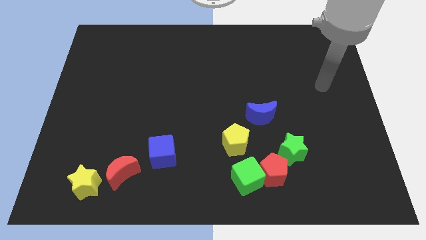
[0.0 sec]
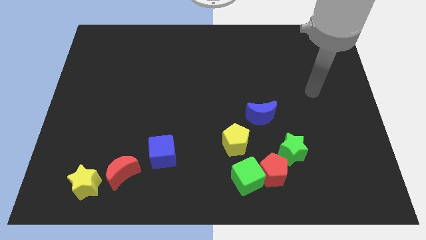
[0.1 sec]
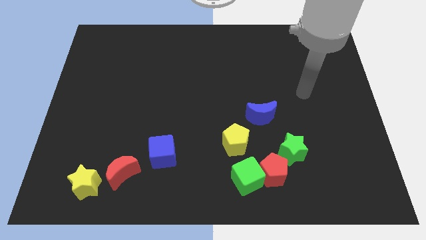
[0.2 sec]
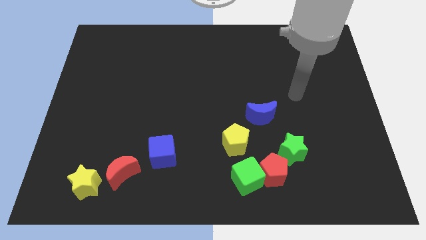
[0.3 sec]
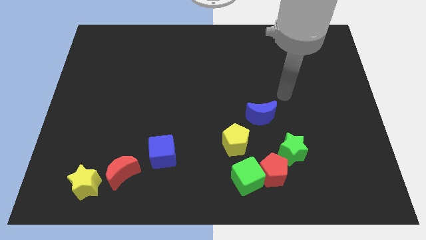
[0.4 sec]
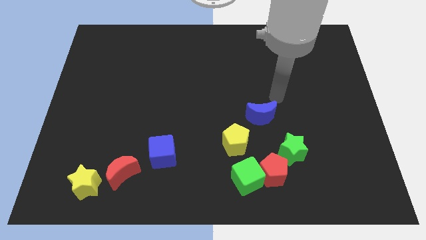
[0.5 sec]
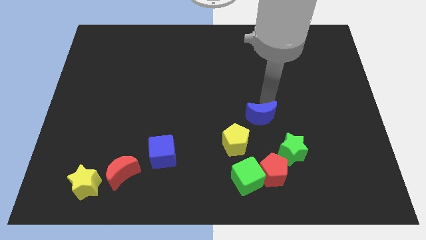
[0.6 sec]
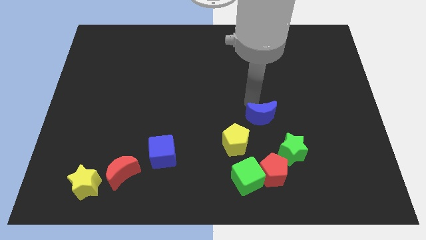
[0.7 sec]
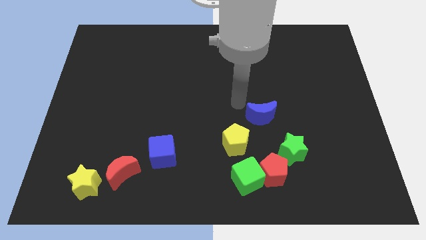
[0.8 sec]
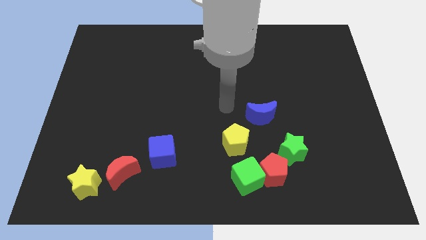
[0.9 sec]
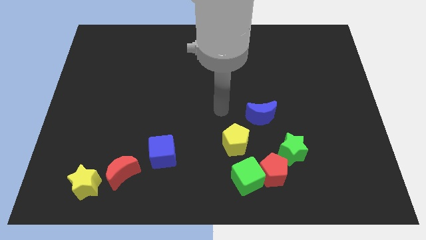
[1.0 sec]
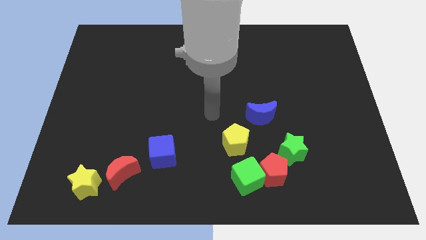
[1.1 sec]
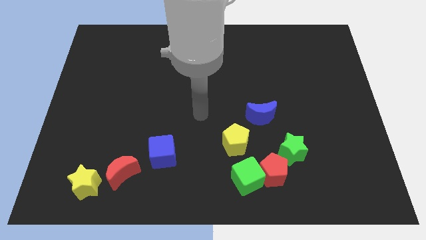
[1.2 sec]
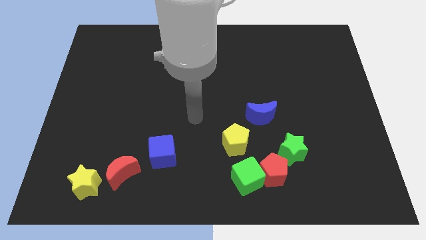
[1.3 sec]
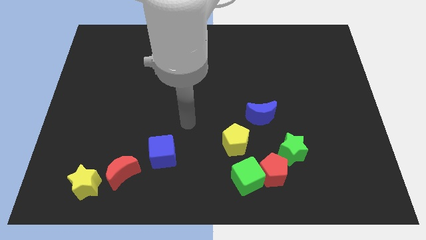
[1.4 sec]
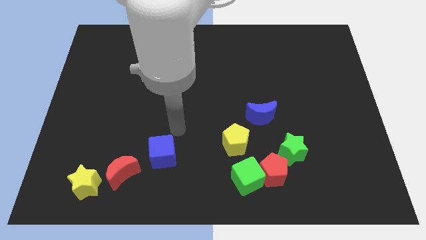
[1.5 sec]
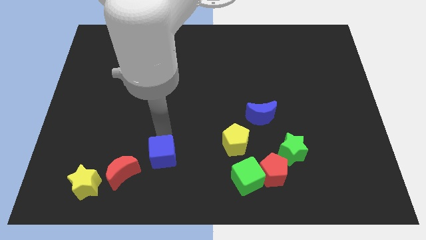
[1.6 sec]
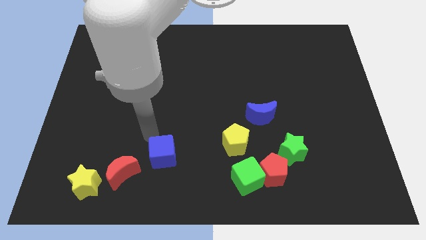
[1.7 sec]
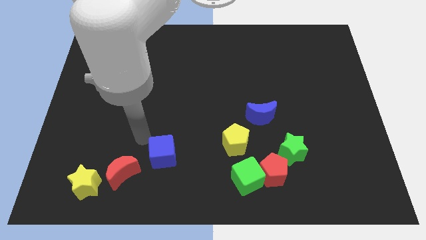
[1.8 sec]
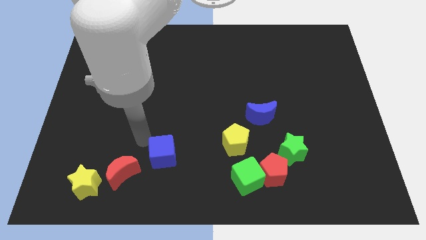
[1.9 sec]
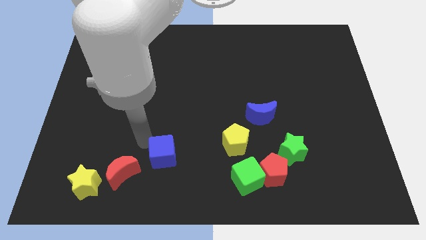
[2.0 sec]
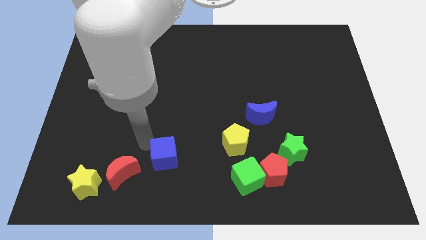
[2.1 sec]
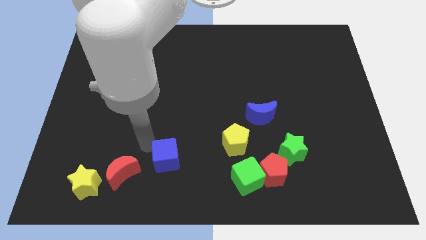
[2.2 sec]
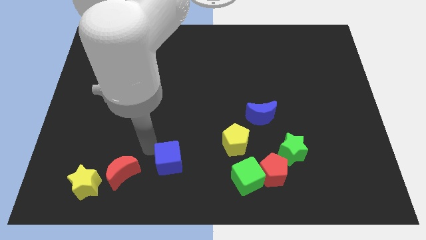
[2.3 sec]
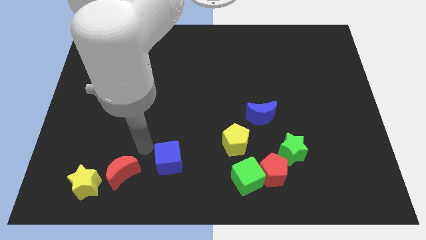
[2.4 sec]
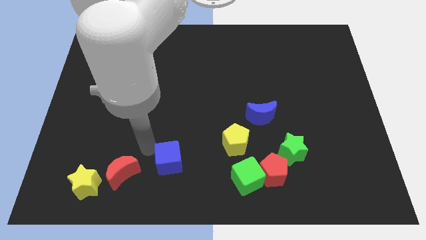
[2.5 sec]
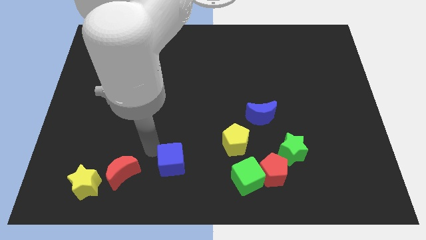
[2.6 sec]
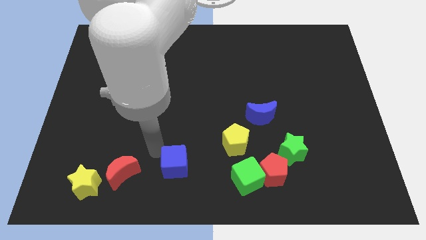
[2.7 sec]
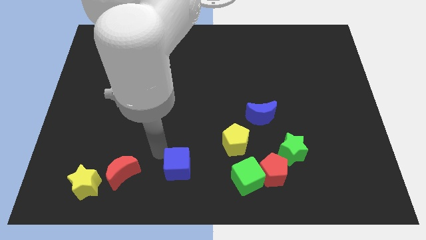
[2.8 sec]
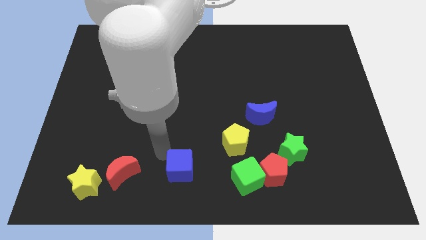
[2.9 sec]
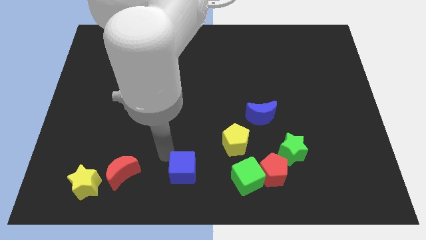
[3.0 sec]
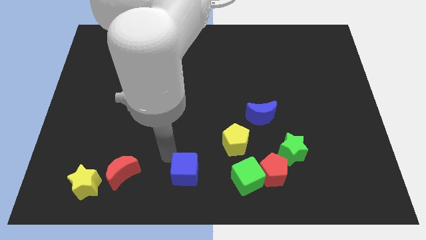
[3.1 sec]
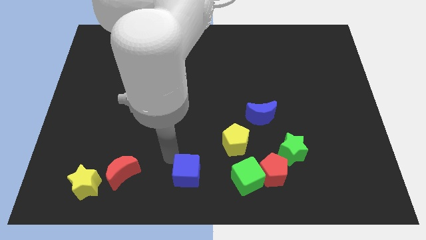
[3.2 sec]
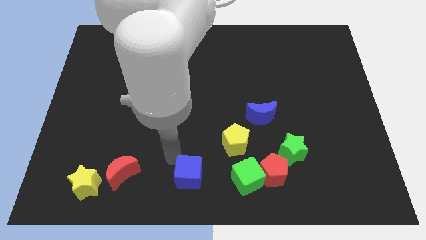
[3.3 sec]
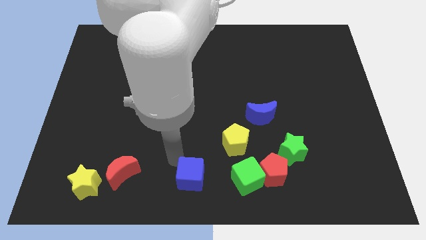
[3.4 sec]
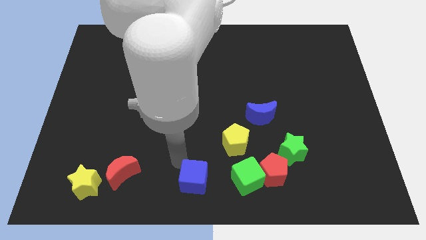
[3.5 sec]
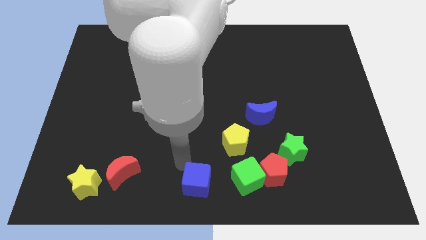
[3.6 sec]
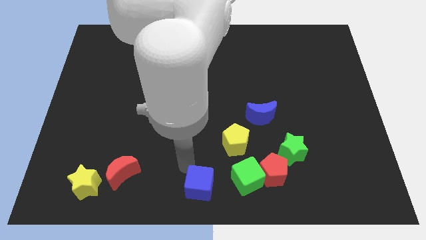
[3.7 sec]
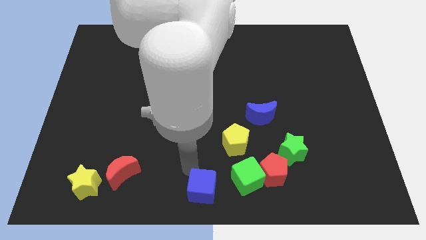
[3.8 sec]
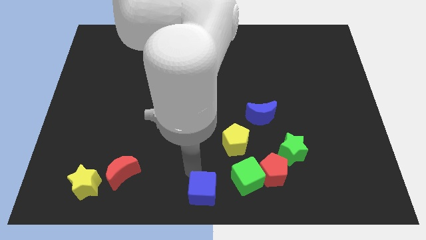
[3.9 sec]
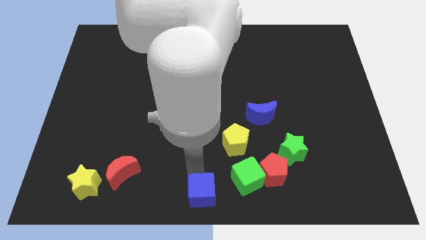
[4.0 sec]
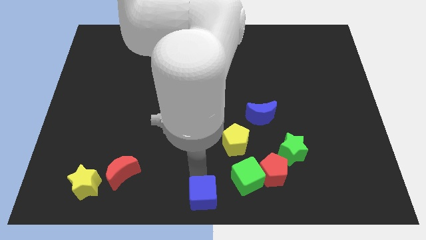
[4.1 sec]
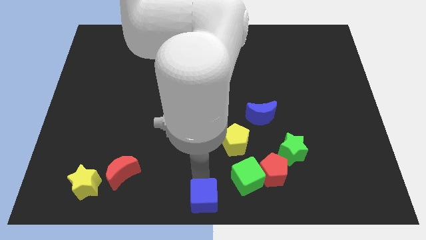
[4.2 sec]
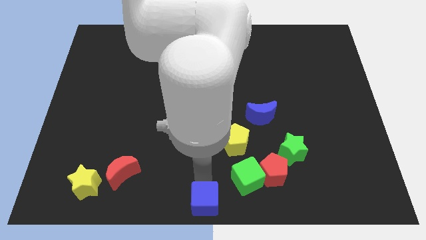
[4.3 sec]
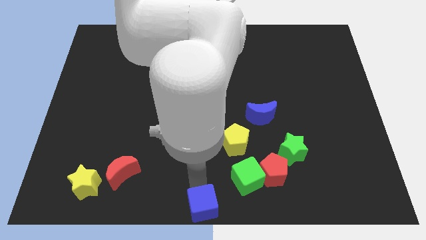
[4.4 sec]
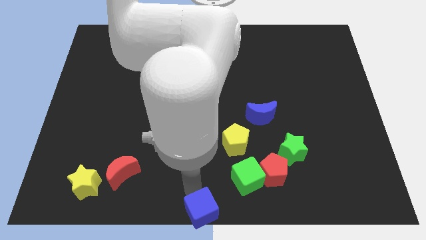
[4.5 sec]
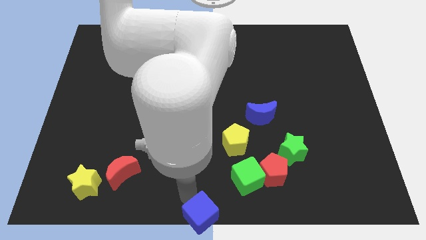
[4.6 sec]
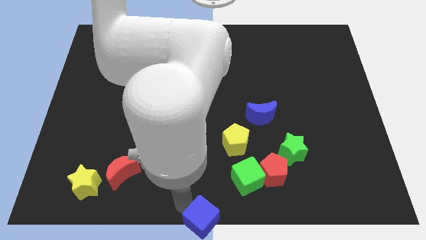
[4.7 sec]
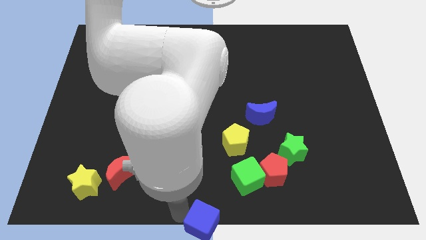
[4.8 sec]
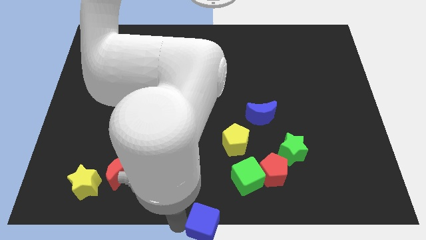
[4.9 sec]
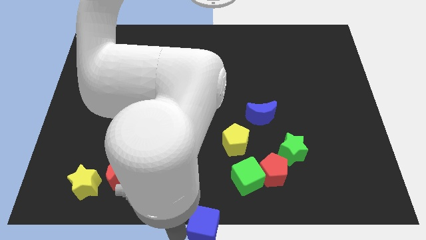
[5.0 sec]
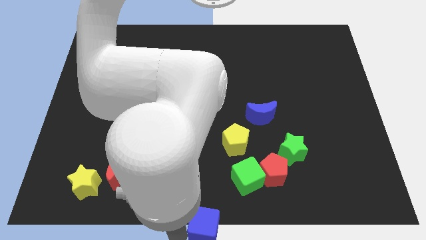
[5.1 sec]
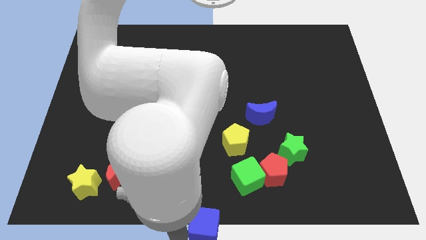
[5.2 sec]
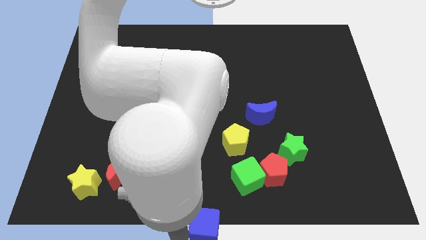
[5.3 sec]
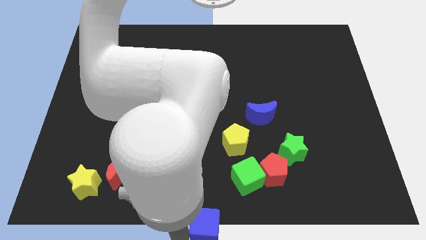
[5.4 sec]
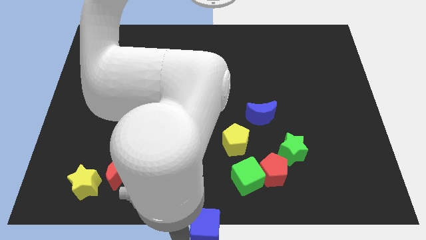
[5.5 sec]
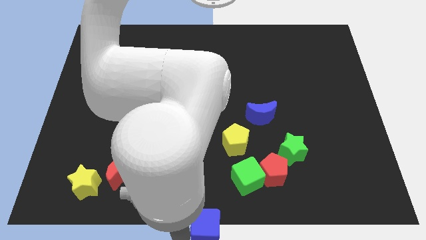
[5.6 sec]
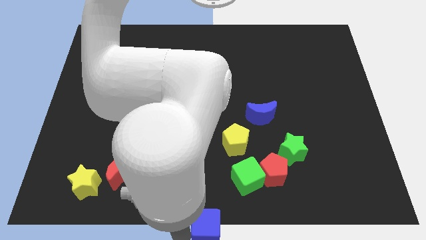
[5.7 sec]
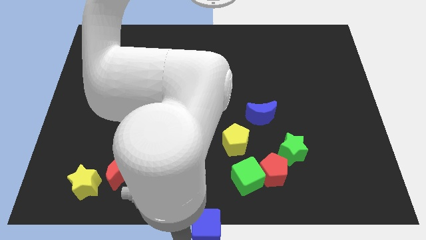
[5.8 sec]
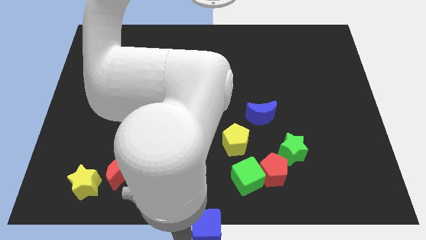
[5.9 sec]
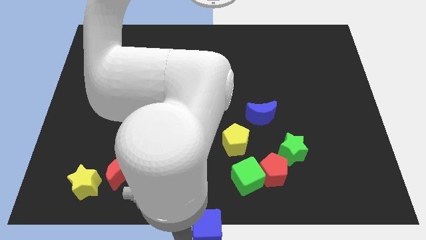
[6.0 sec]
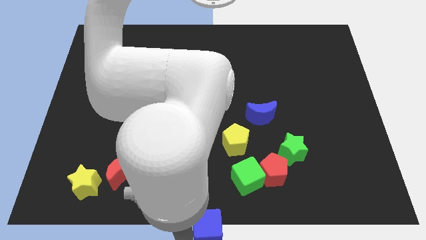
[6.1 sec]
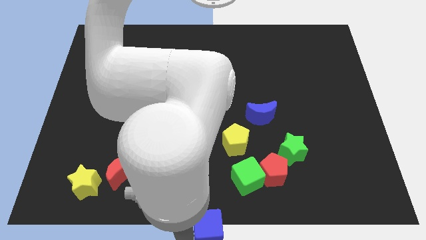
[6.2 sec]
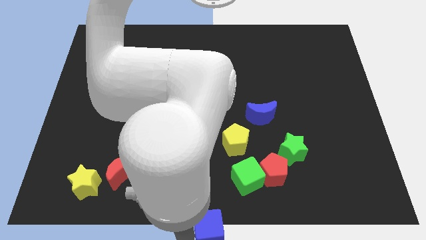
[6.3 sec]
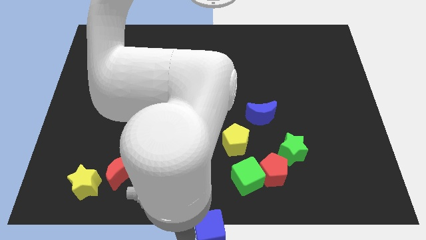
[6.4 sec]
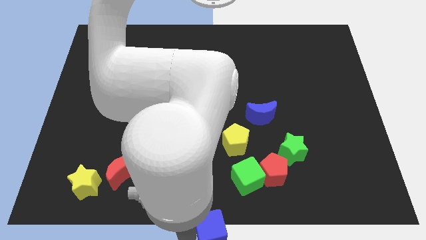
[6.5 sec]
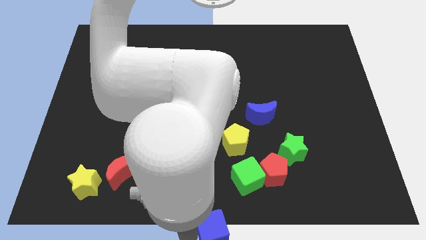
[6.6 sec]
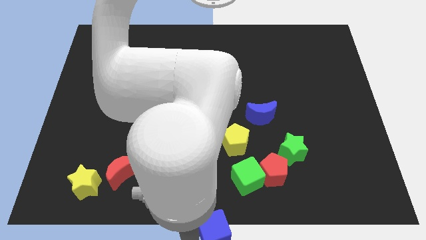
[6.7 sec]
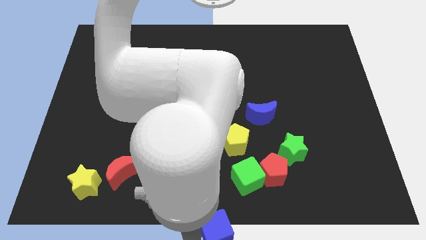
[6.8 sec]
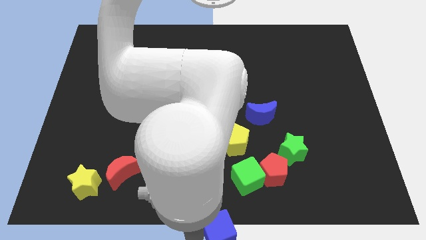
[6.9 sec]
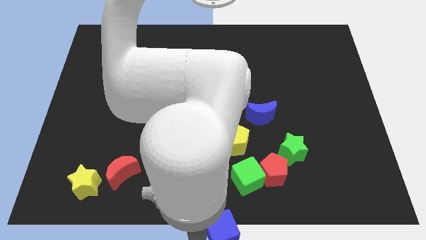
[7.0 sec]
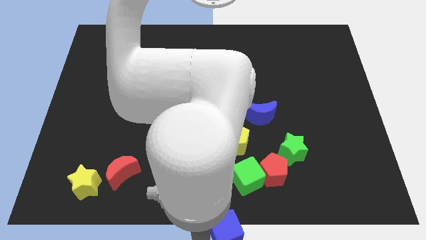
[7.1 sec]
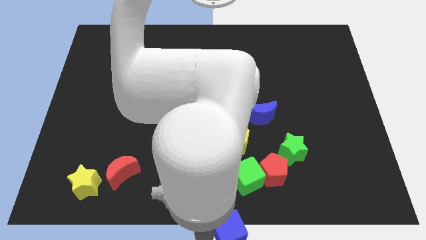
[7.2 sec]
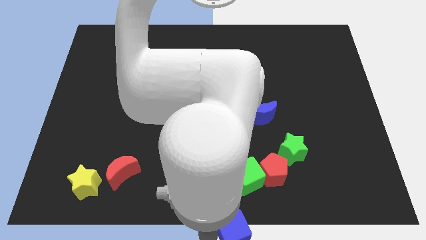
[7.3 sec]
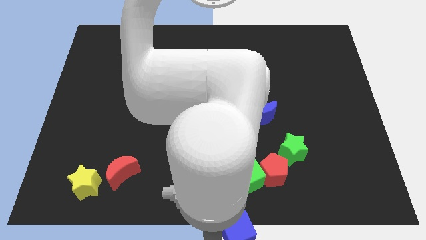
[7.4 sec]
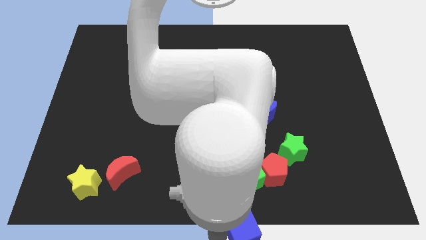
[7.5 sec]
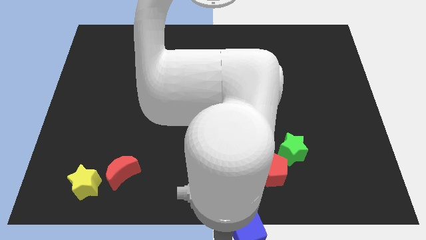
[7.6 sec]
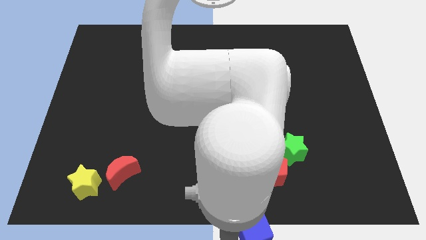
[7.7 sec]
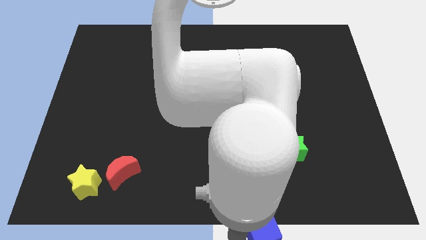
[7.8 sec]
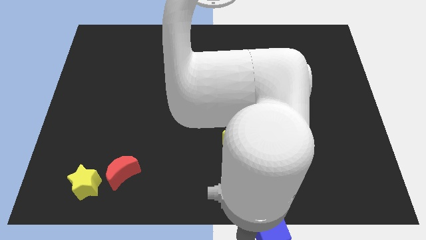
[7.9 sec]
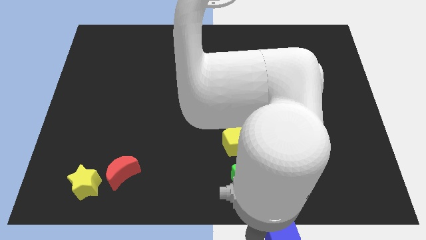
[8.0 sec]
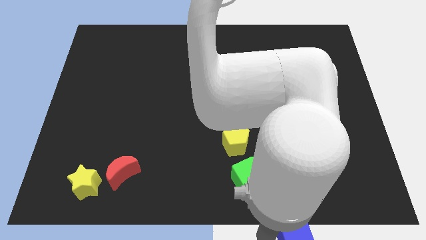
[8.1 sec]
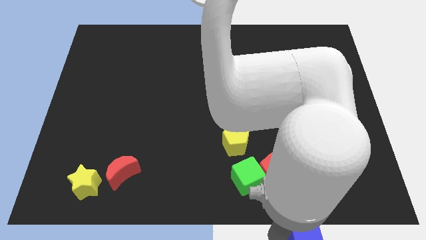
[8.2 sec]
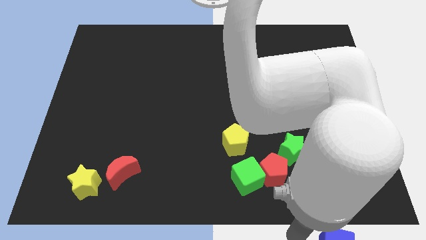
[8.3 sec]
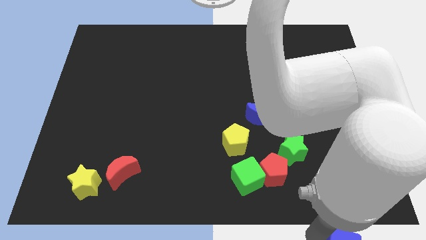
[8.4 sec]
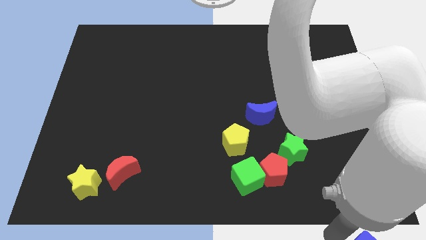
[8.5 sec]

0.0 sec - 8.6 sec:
slide the blue cube to the bottom right corner
